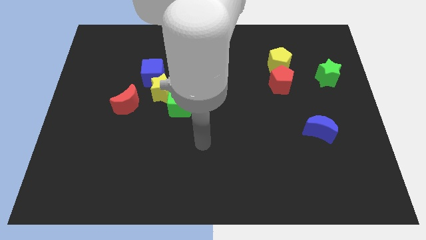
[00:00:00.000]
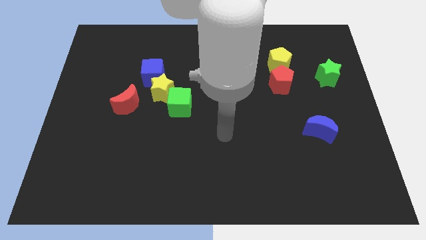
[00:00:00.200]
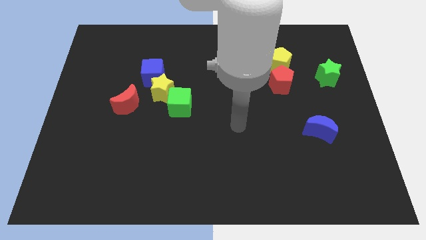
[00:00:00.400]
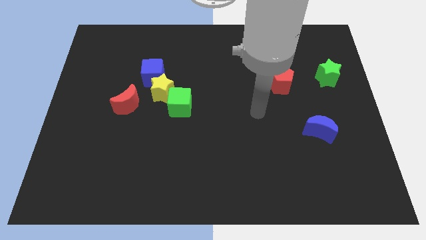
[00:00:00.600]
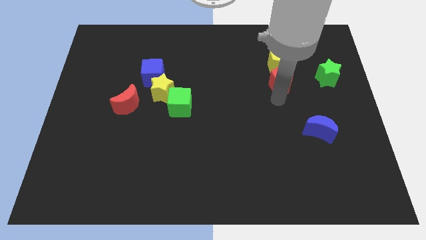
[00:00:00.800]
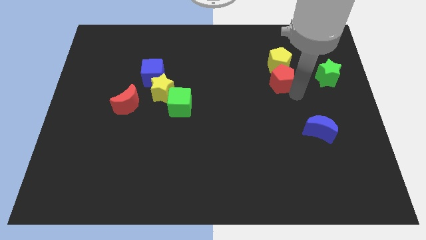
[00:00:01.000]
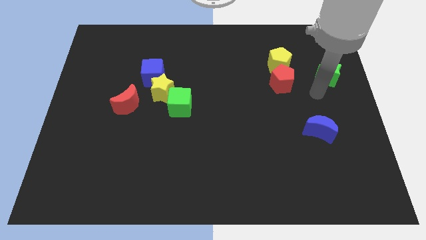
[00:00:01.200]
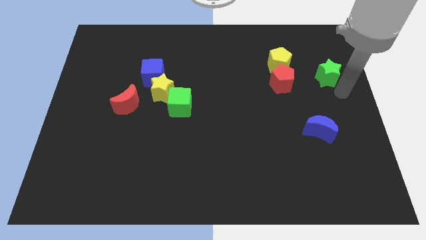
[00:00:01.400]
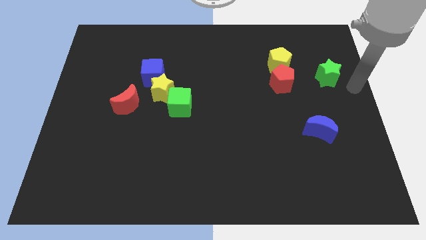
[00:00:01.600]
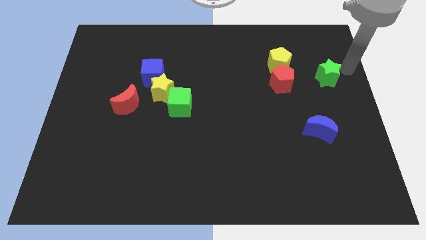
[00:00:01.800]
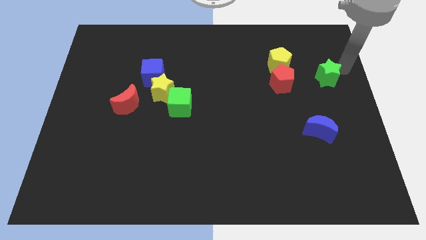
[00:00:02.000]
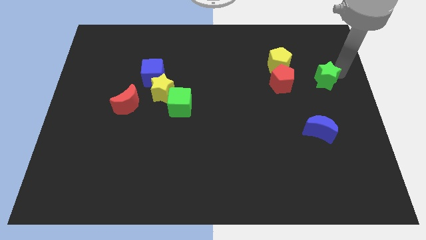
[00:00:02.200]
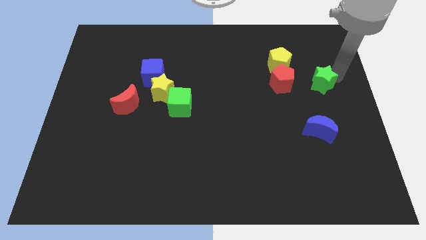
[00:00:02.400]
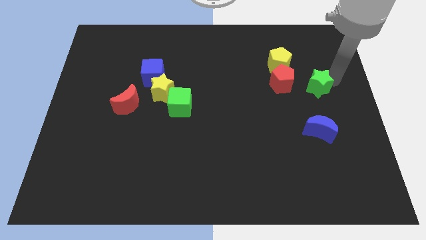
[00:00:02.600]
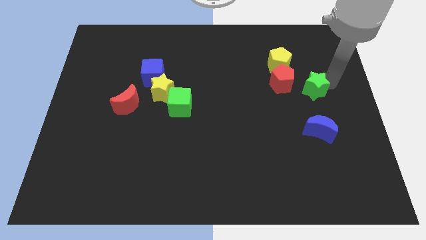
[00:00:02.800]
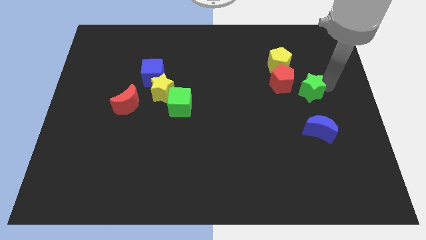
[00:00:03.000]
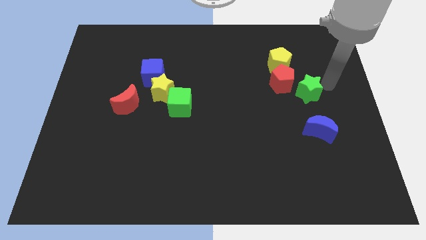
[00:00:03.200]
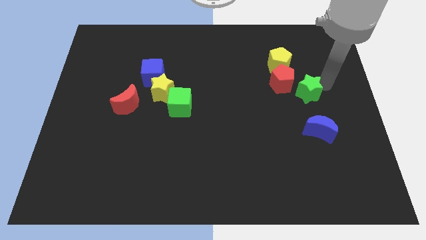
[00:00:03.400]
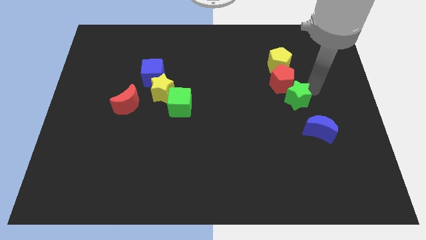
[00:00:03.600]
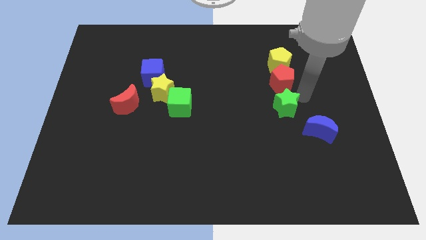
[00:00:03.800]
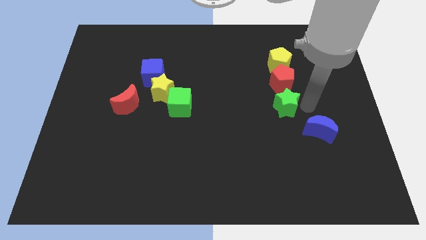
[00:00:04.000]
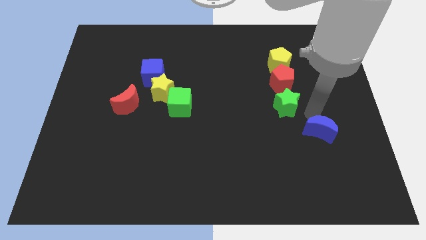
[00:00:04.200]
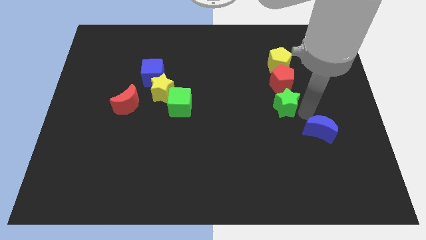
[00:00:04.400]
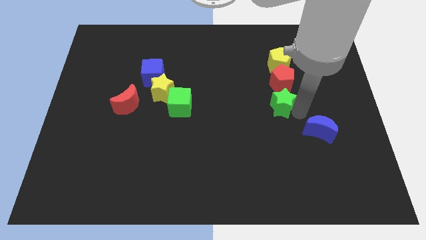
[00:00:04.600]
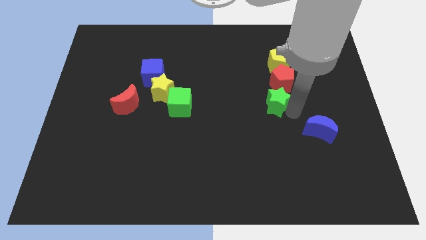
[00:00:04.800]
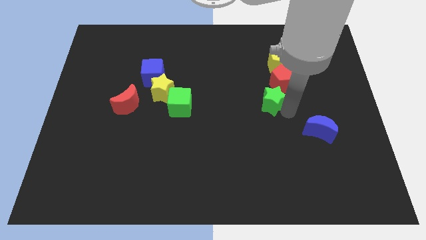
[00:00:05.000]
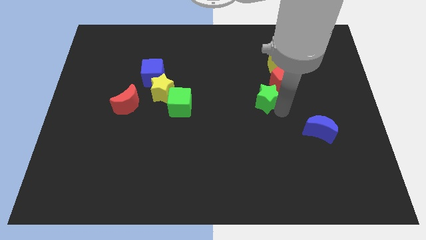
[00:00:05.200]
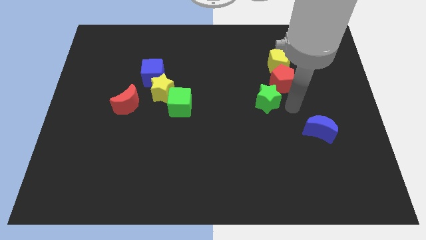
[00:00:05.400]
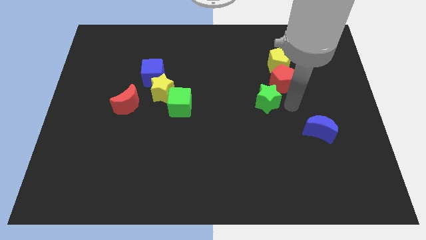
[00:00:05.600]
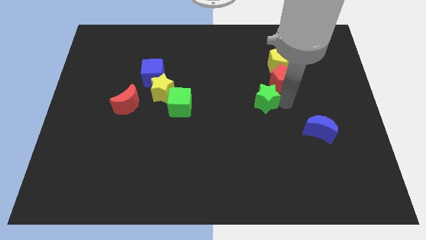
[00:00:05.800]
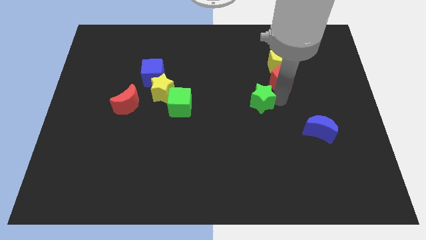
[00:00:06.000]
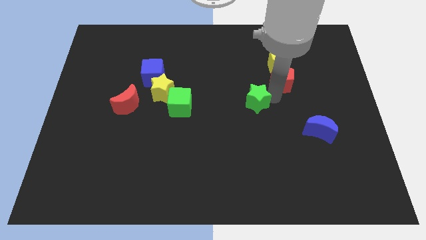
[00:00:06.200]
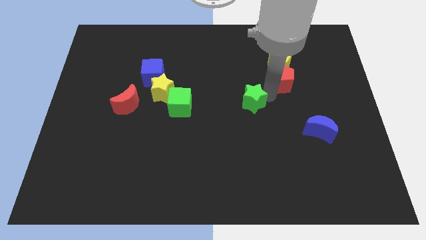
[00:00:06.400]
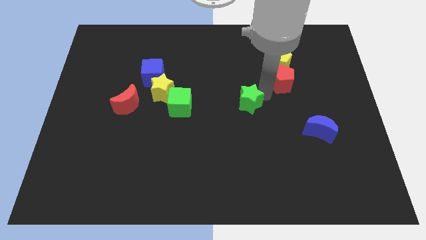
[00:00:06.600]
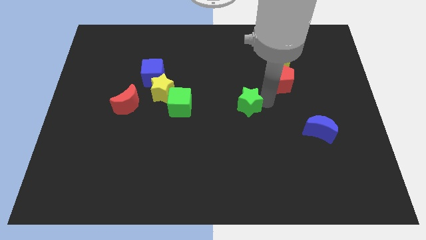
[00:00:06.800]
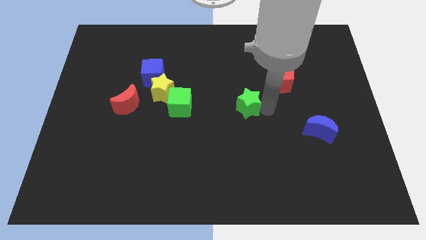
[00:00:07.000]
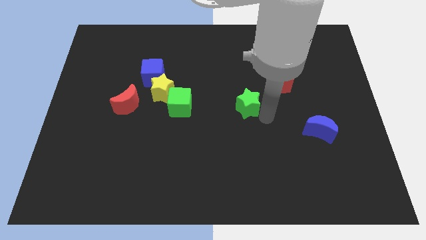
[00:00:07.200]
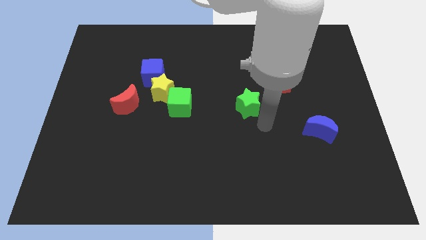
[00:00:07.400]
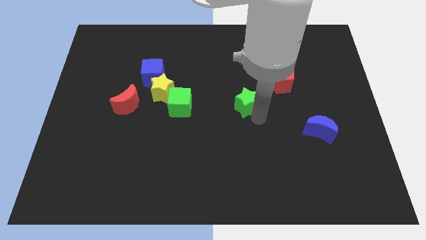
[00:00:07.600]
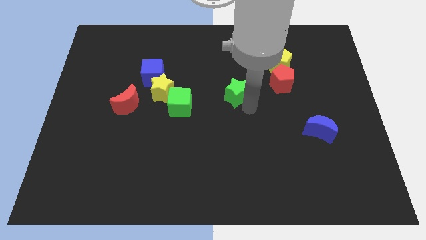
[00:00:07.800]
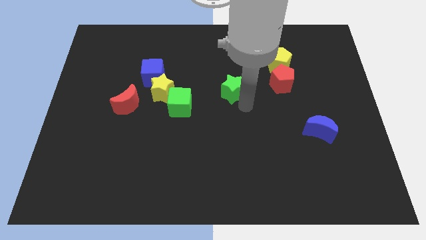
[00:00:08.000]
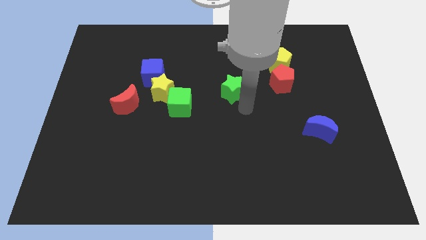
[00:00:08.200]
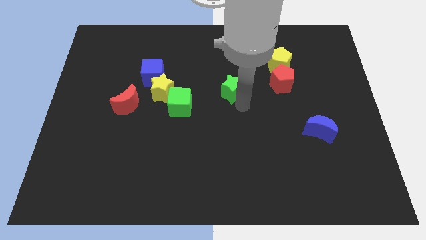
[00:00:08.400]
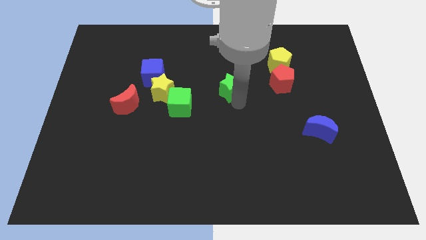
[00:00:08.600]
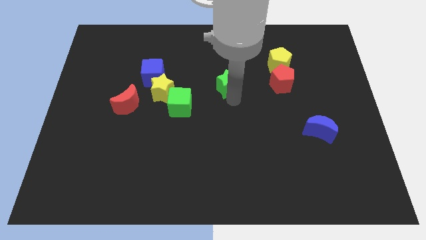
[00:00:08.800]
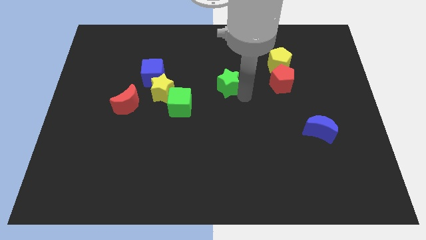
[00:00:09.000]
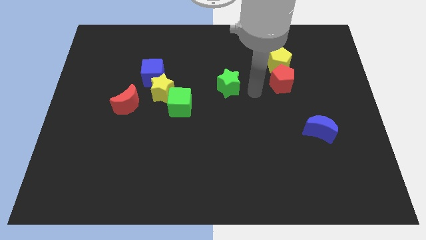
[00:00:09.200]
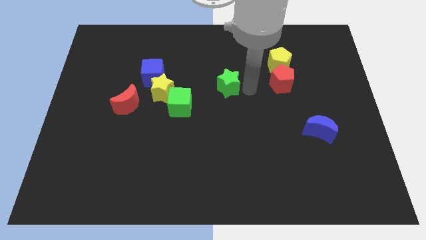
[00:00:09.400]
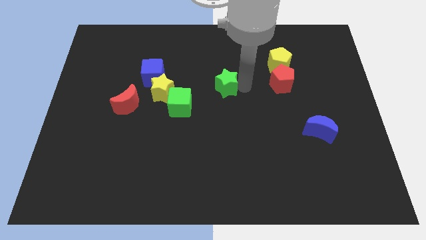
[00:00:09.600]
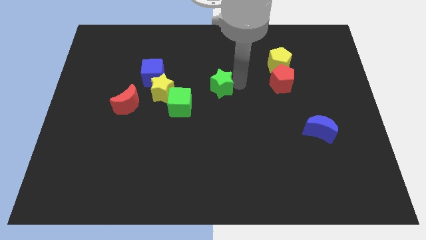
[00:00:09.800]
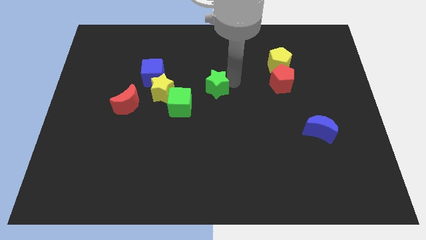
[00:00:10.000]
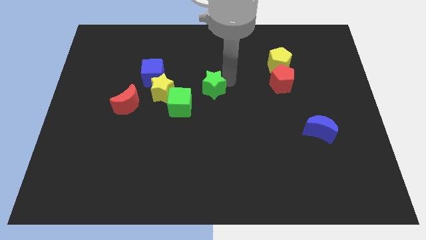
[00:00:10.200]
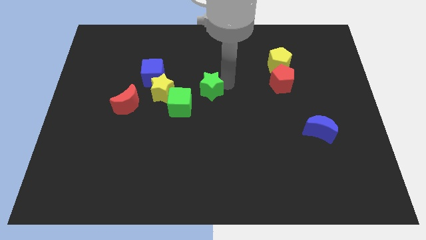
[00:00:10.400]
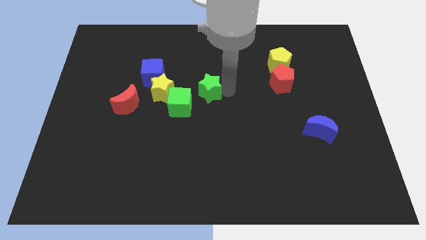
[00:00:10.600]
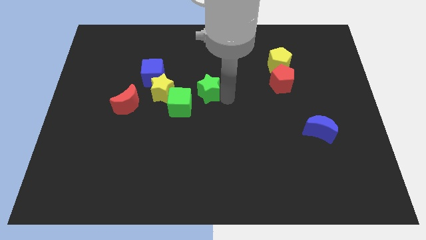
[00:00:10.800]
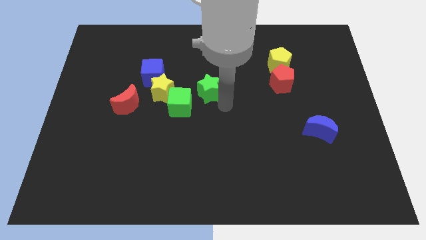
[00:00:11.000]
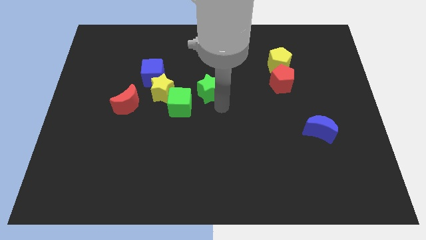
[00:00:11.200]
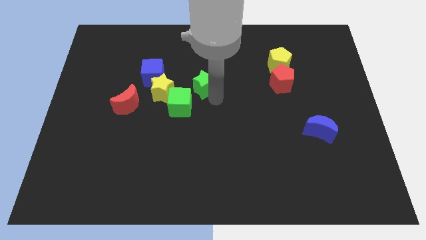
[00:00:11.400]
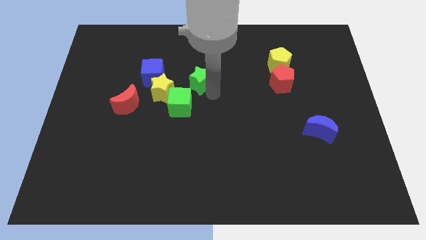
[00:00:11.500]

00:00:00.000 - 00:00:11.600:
put the green star to the top right side of the yellow star

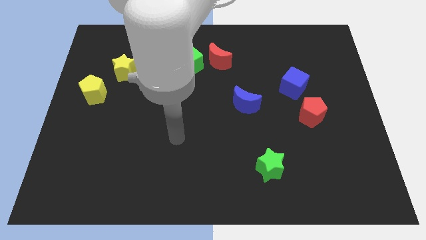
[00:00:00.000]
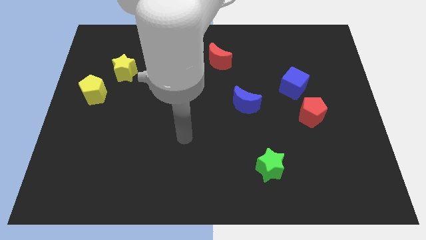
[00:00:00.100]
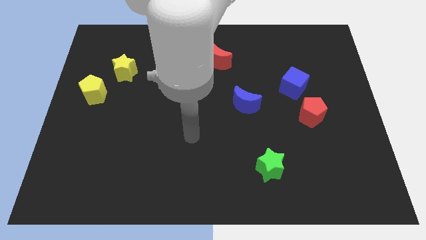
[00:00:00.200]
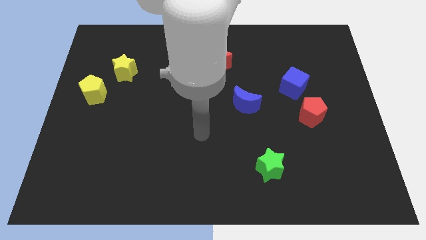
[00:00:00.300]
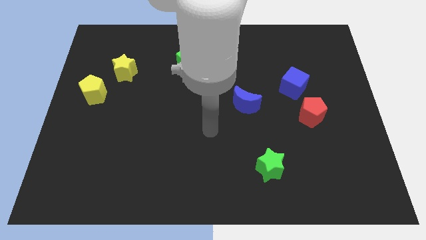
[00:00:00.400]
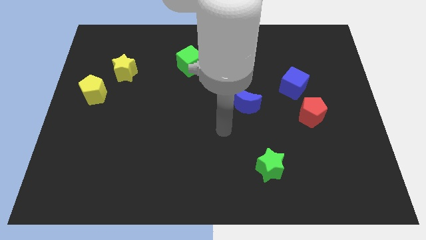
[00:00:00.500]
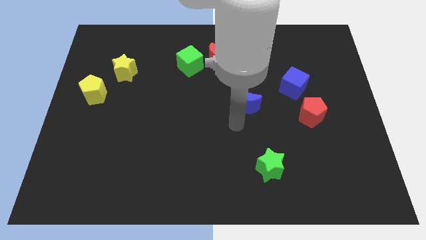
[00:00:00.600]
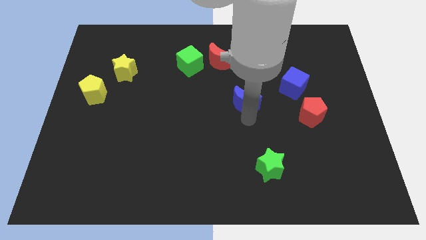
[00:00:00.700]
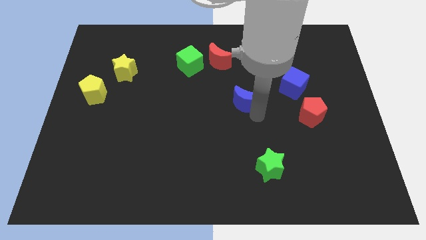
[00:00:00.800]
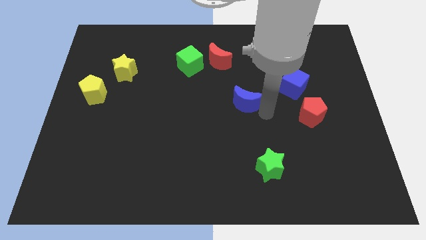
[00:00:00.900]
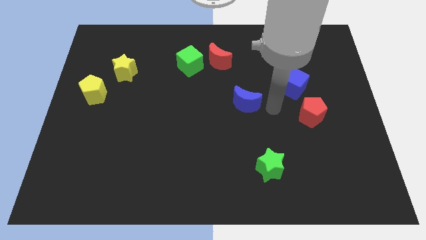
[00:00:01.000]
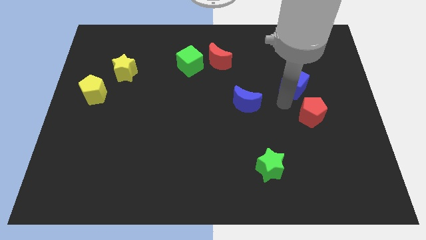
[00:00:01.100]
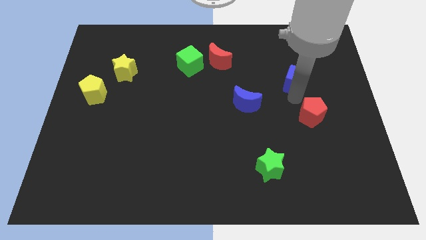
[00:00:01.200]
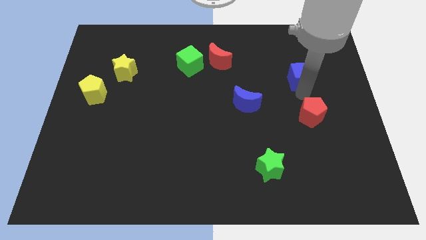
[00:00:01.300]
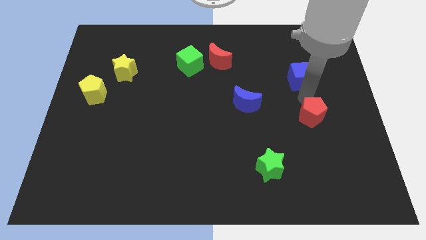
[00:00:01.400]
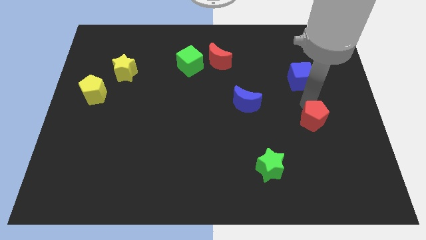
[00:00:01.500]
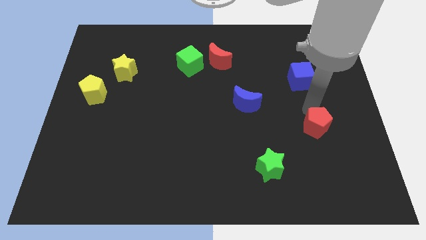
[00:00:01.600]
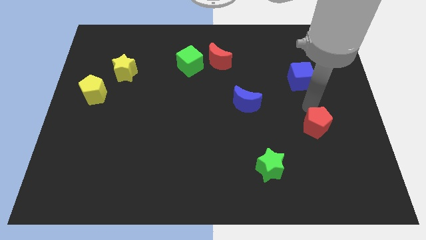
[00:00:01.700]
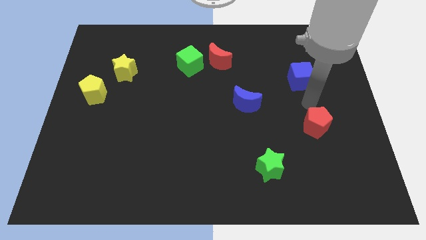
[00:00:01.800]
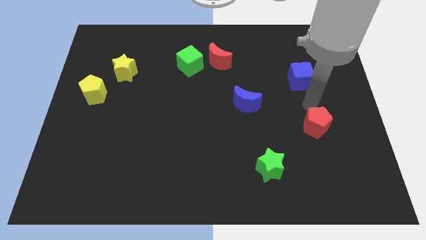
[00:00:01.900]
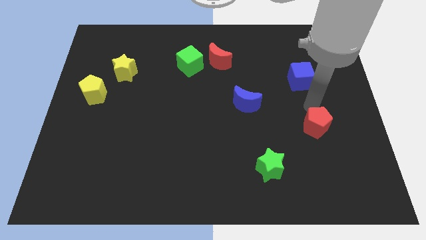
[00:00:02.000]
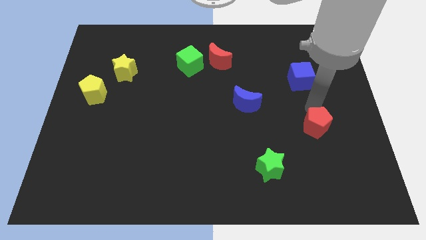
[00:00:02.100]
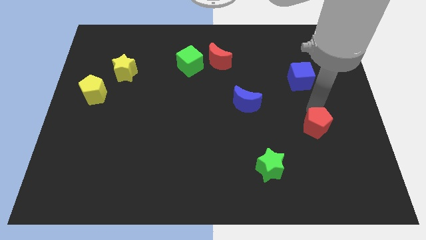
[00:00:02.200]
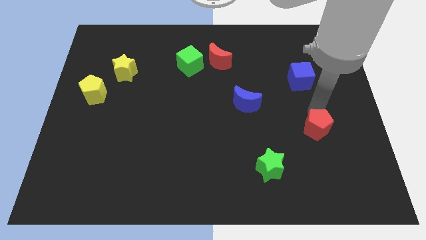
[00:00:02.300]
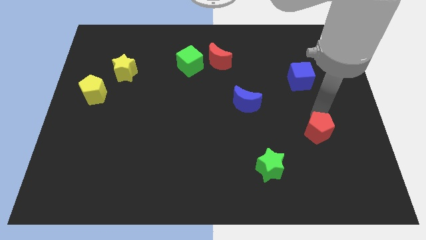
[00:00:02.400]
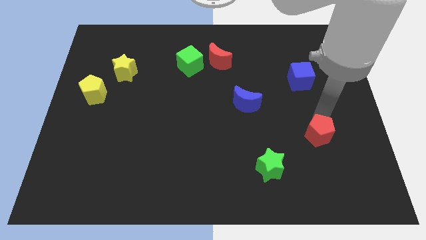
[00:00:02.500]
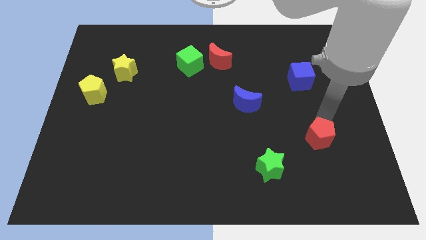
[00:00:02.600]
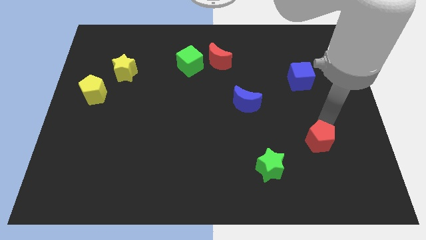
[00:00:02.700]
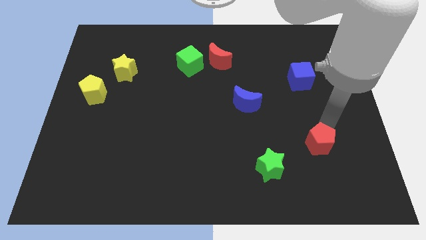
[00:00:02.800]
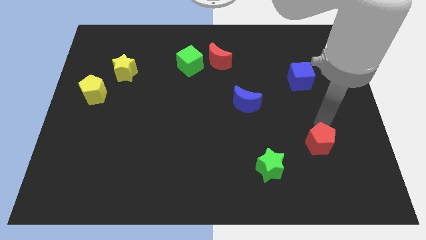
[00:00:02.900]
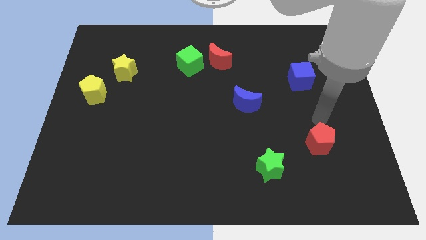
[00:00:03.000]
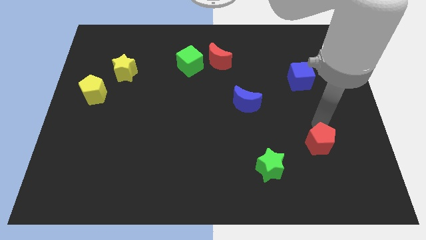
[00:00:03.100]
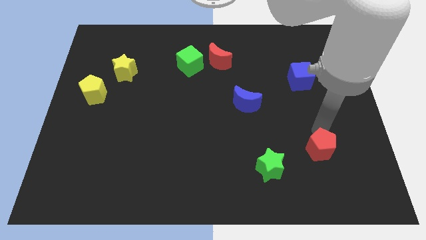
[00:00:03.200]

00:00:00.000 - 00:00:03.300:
slide the red pentagon just right of the green star
